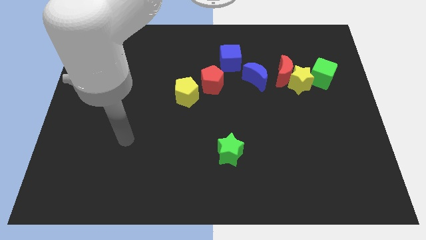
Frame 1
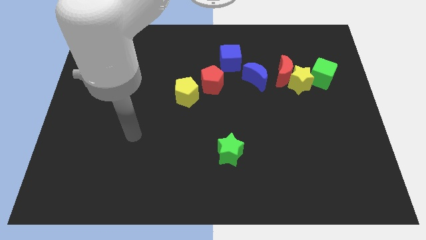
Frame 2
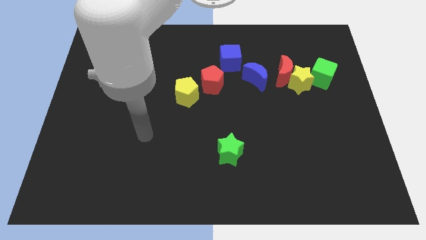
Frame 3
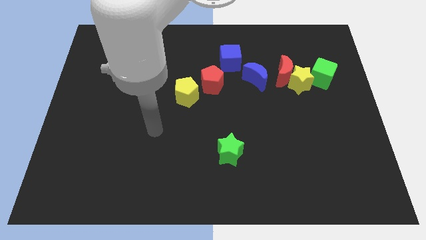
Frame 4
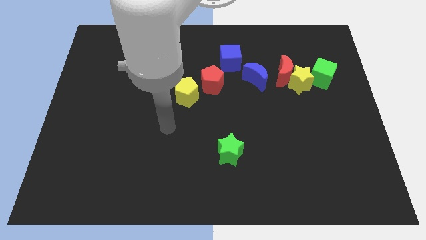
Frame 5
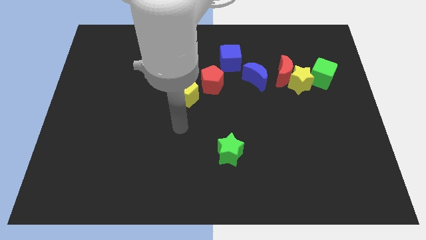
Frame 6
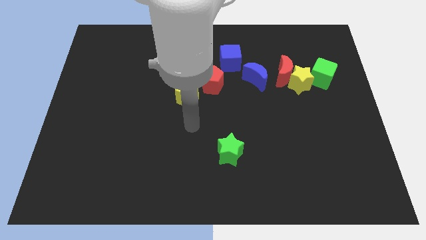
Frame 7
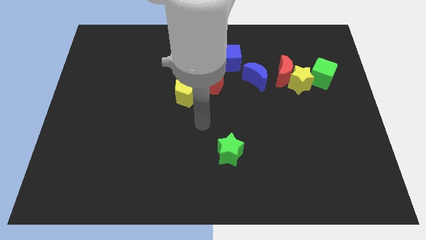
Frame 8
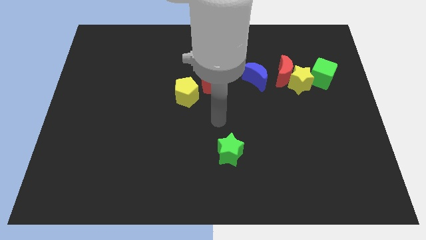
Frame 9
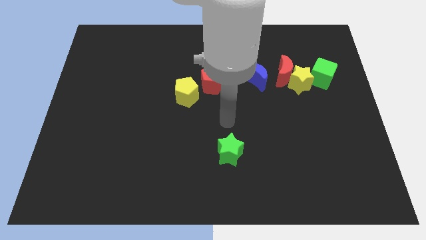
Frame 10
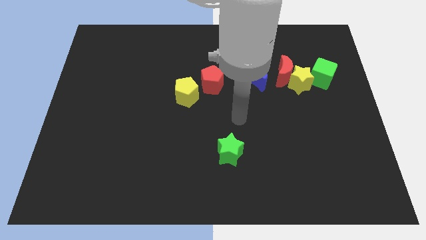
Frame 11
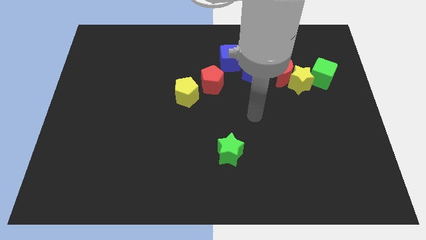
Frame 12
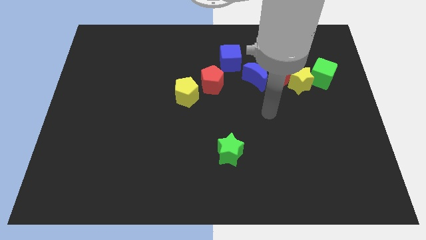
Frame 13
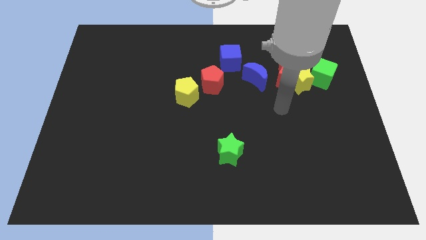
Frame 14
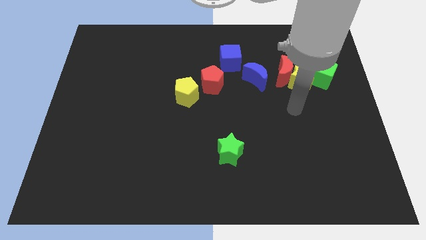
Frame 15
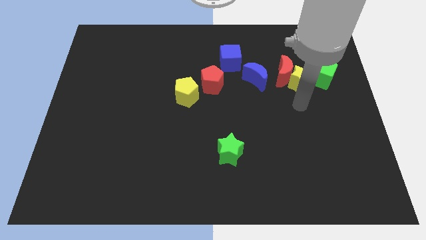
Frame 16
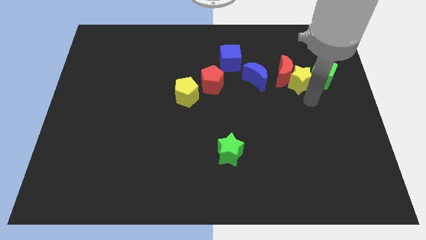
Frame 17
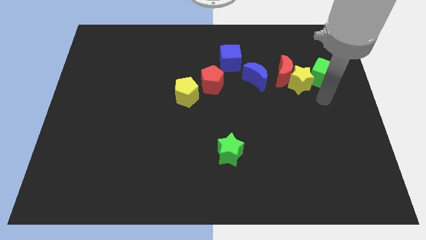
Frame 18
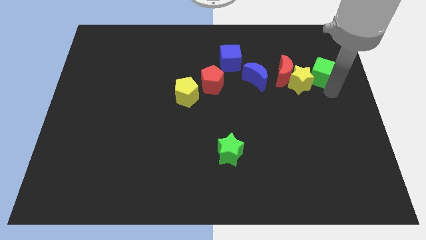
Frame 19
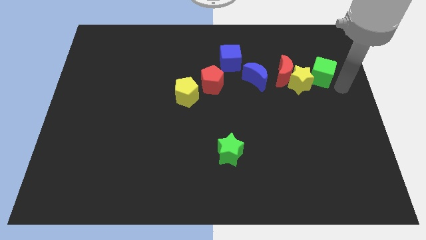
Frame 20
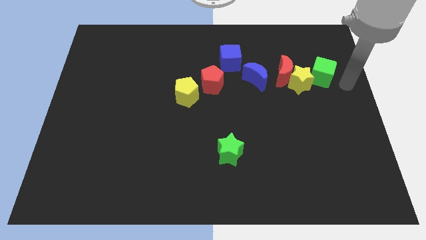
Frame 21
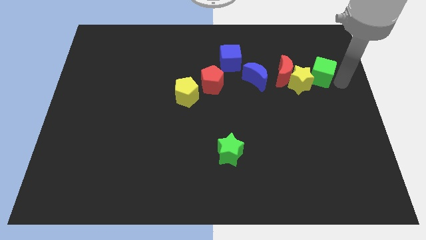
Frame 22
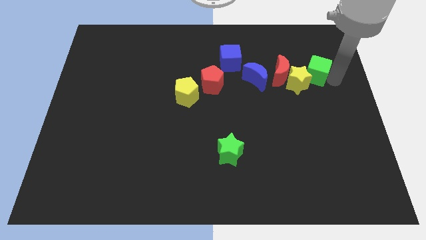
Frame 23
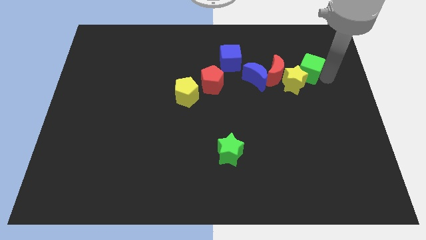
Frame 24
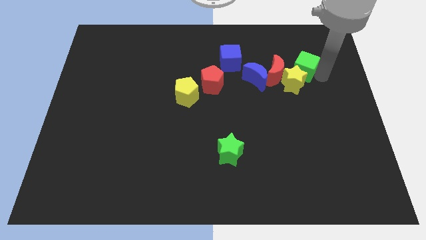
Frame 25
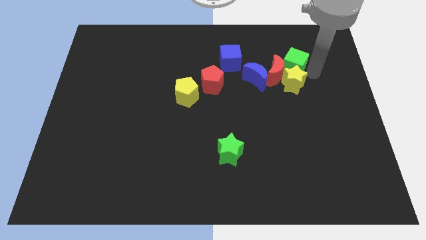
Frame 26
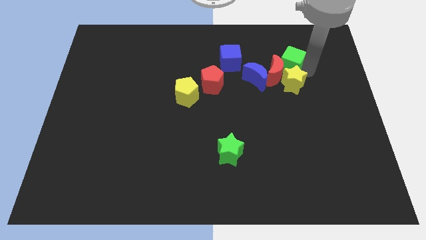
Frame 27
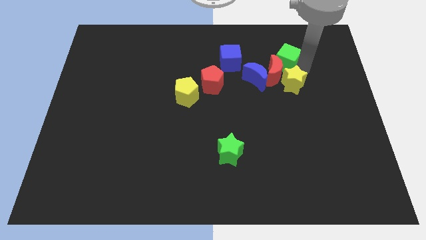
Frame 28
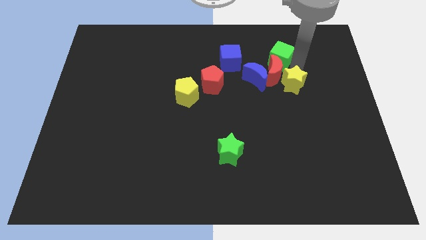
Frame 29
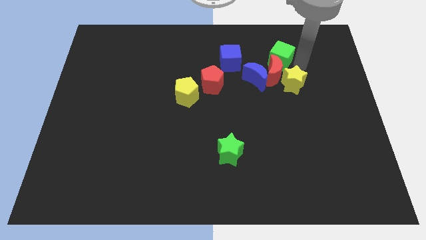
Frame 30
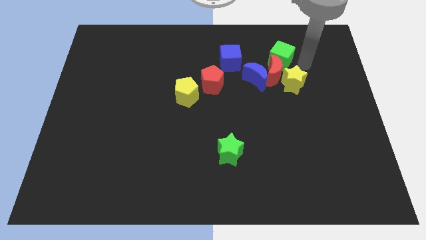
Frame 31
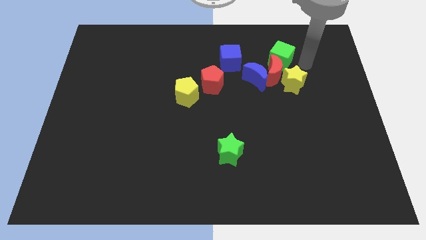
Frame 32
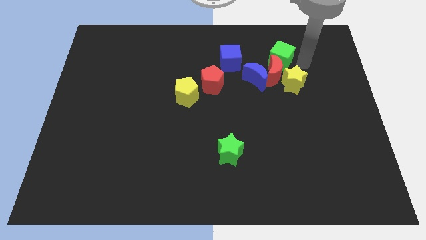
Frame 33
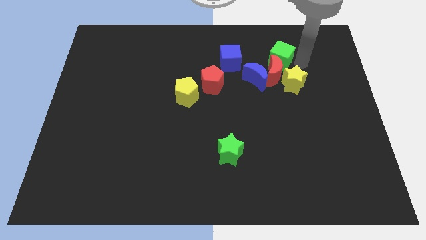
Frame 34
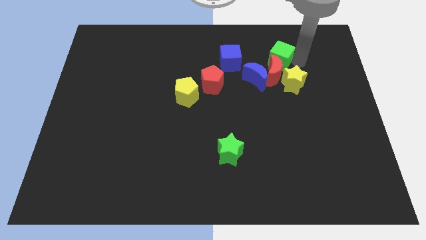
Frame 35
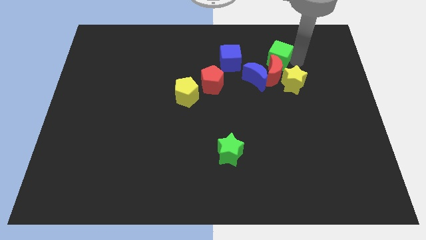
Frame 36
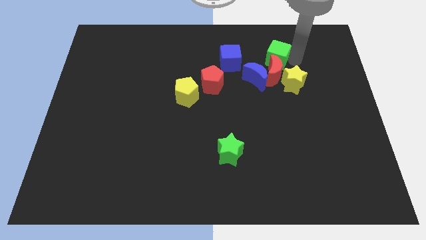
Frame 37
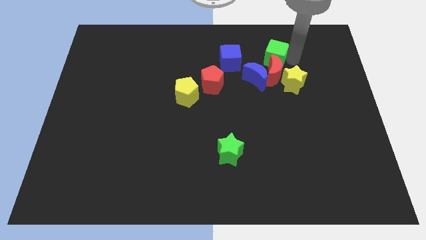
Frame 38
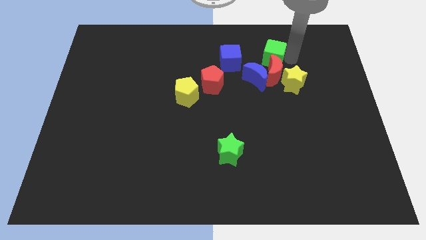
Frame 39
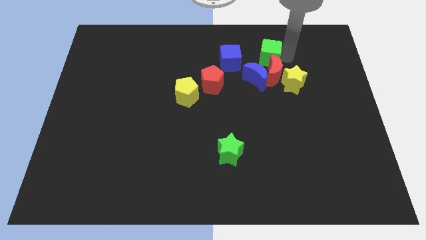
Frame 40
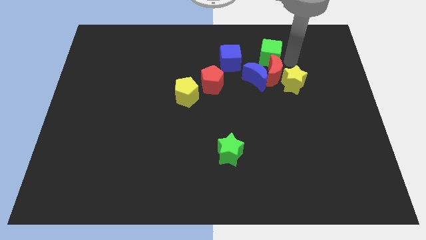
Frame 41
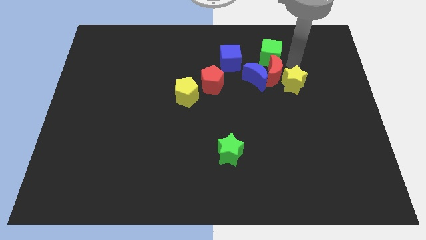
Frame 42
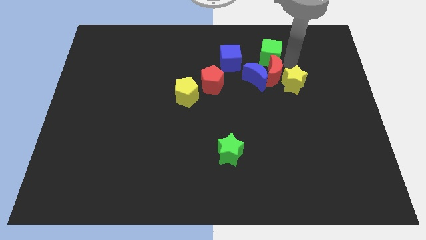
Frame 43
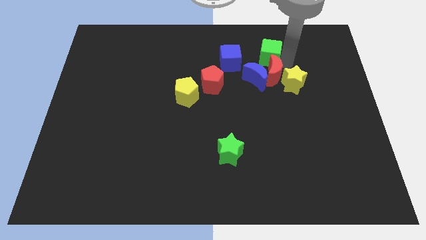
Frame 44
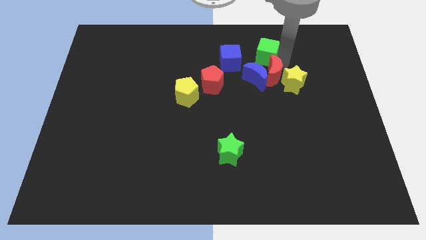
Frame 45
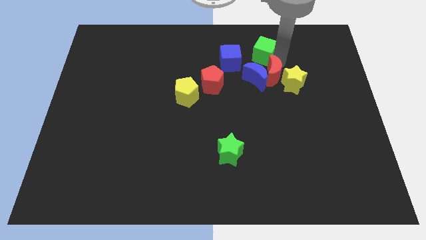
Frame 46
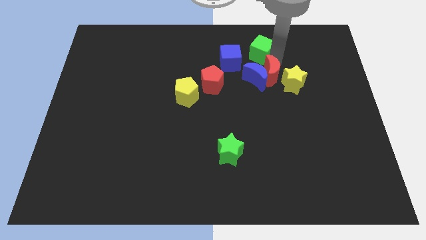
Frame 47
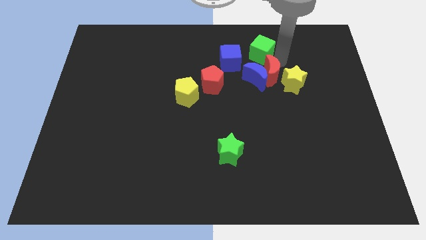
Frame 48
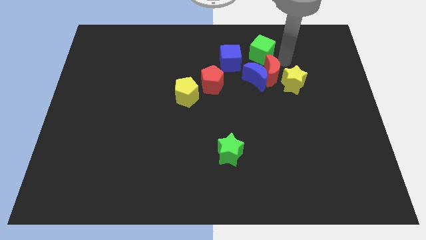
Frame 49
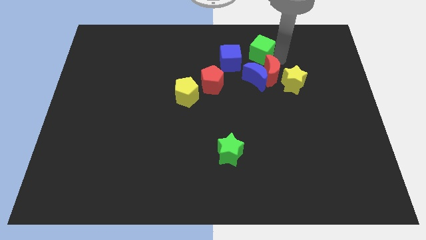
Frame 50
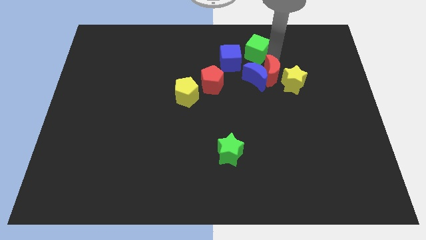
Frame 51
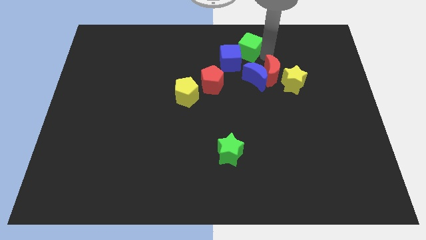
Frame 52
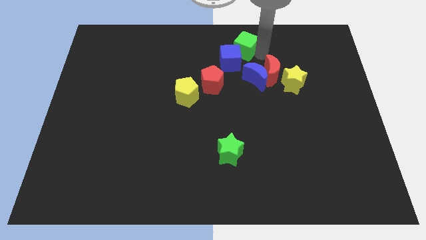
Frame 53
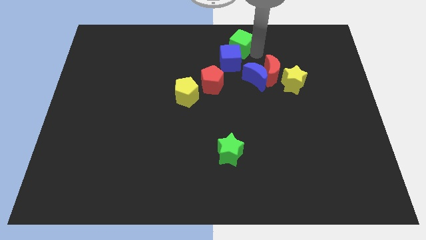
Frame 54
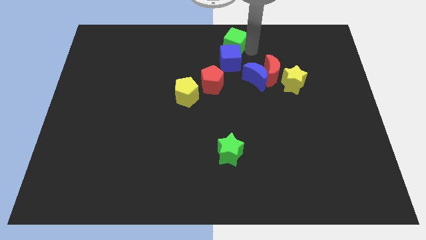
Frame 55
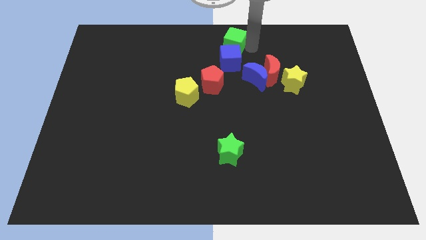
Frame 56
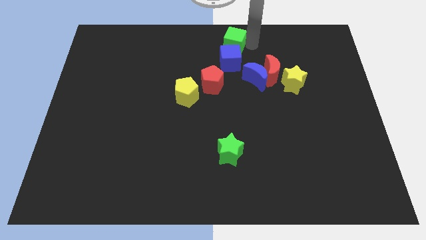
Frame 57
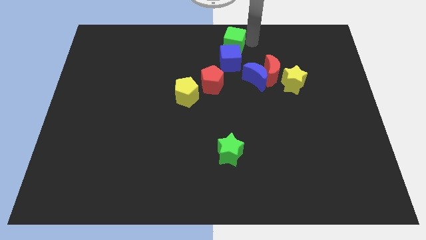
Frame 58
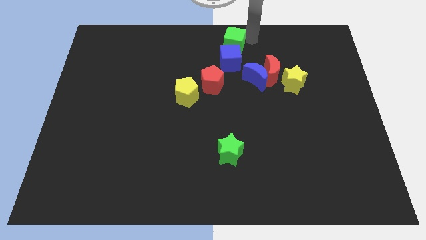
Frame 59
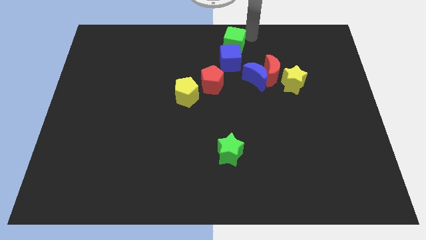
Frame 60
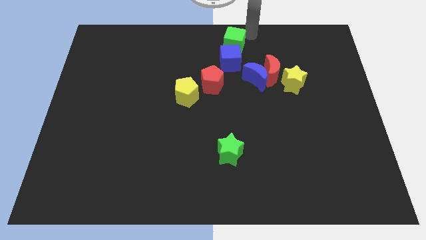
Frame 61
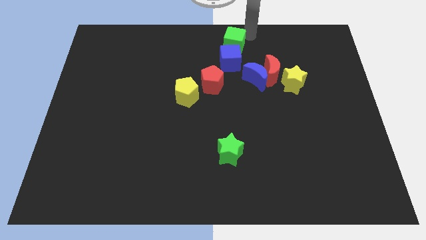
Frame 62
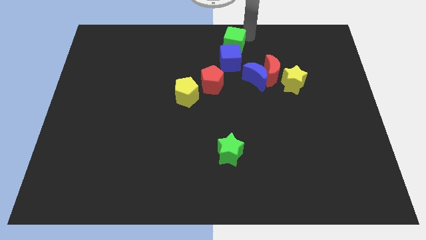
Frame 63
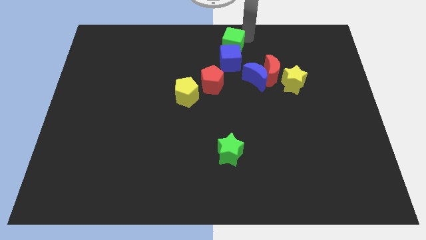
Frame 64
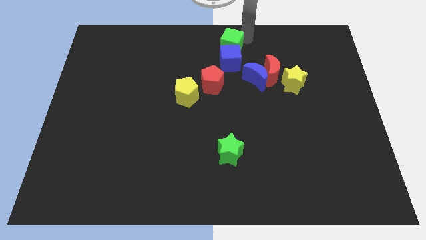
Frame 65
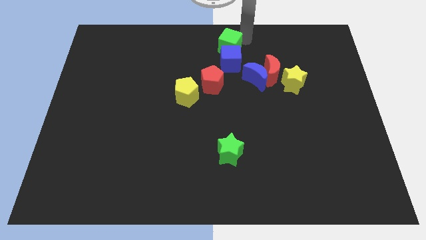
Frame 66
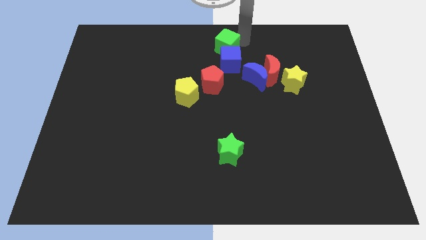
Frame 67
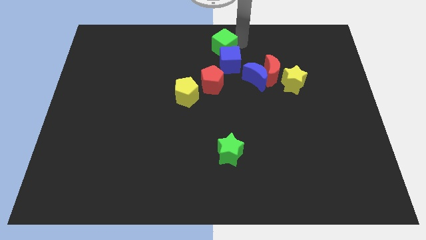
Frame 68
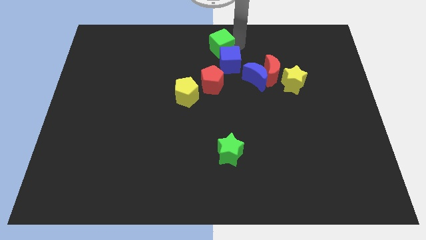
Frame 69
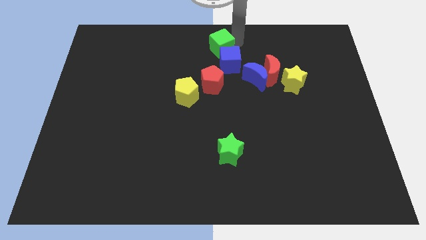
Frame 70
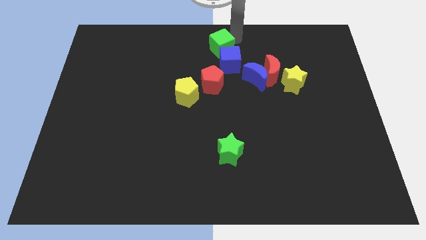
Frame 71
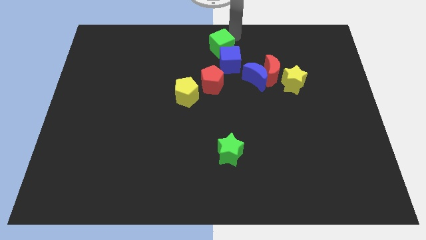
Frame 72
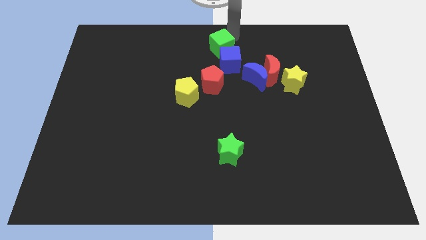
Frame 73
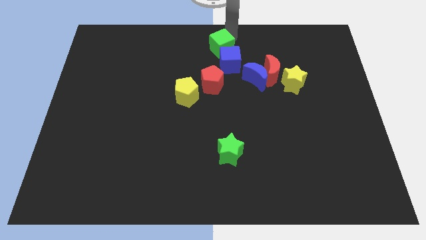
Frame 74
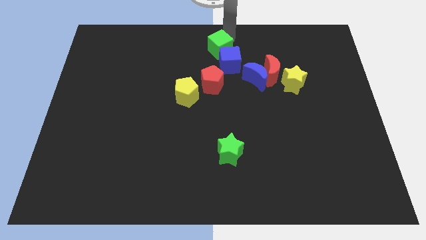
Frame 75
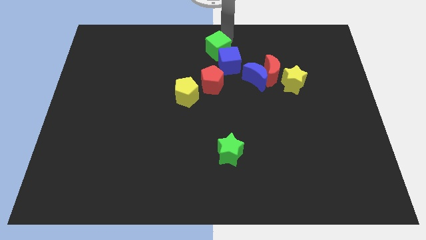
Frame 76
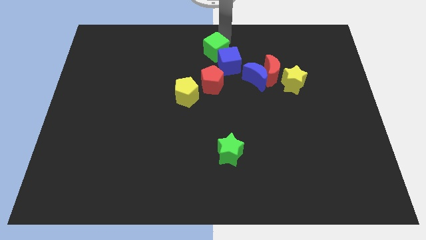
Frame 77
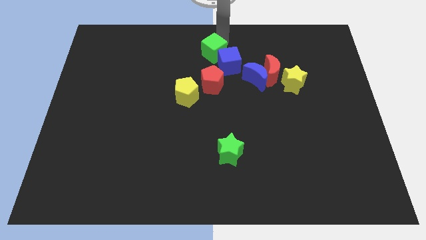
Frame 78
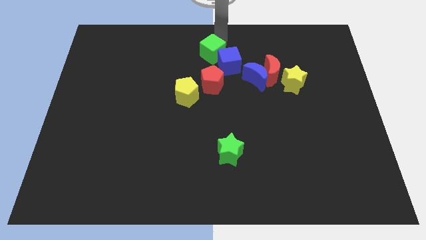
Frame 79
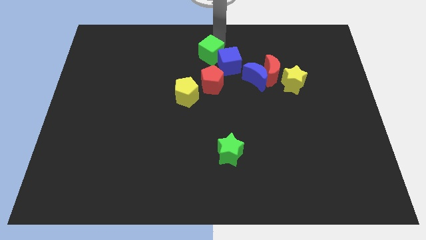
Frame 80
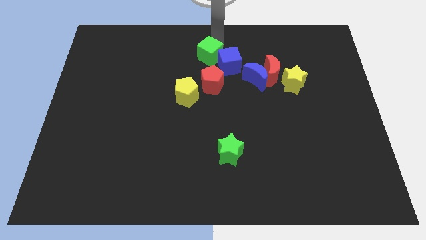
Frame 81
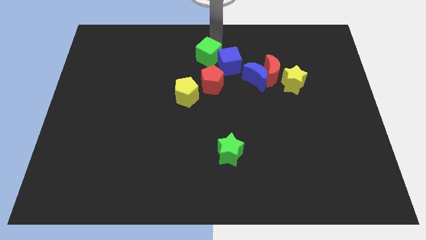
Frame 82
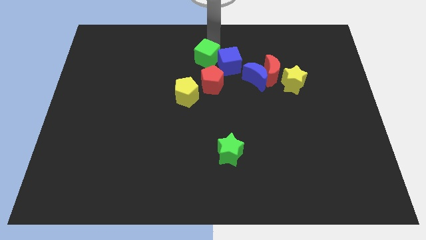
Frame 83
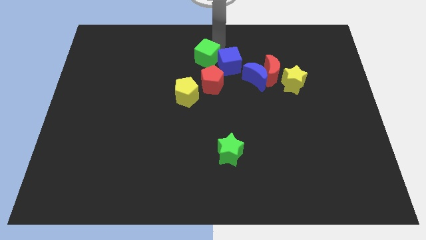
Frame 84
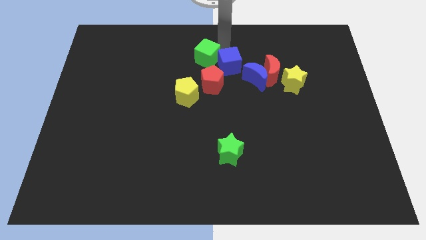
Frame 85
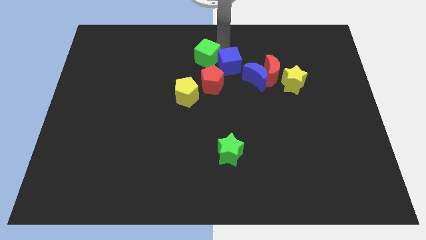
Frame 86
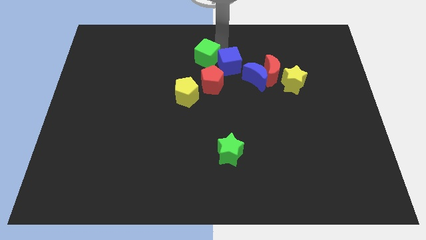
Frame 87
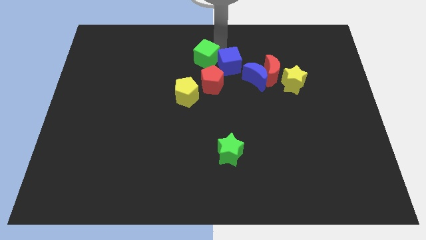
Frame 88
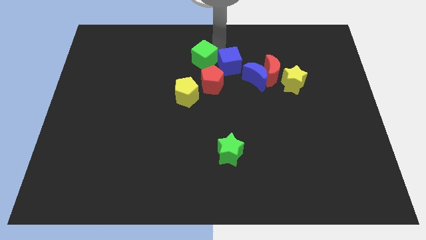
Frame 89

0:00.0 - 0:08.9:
move the green cube to the top left of the red pentagon
